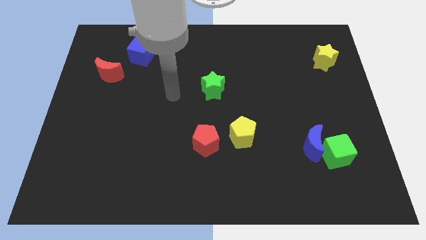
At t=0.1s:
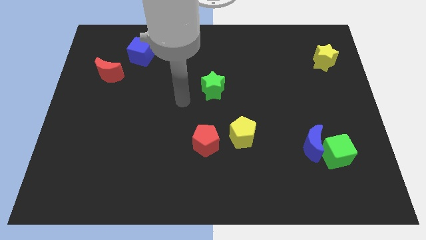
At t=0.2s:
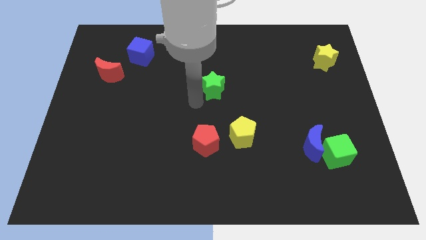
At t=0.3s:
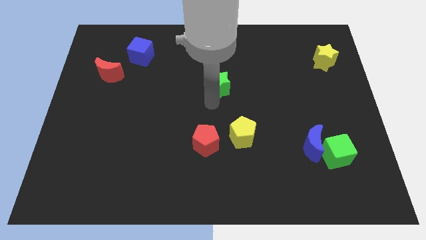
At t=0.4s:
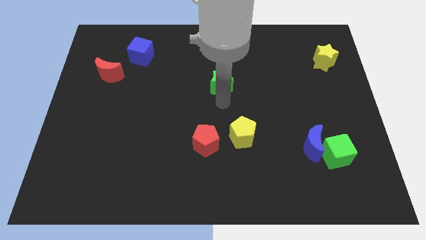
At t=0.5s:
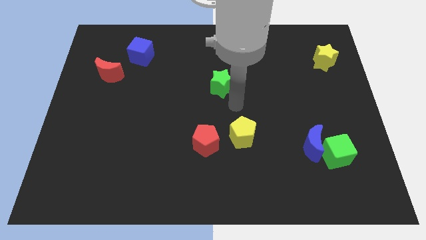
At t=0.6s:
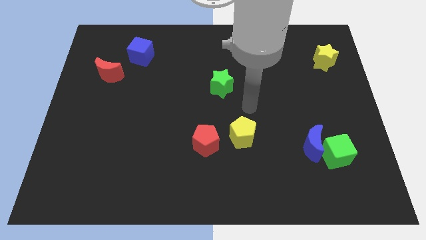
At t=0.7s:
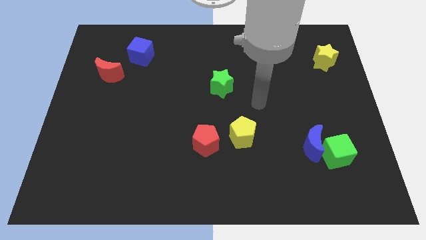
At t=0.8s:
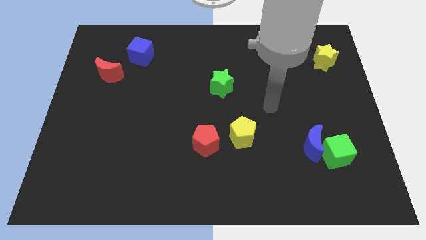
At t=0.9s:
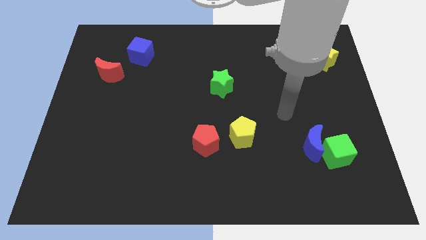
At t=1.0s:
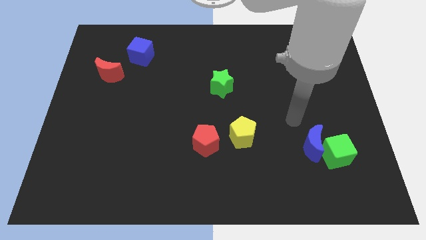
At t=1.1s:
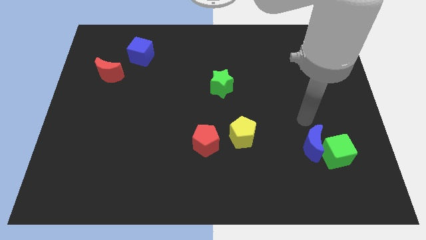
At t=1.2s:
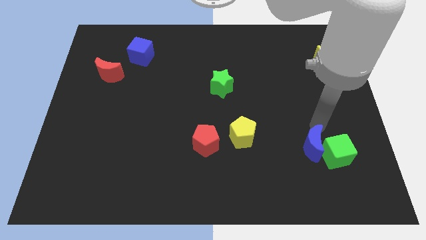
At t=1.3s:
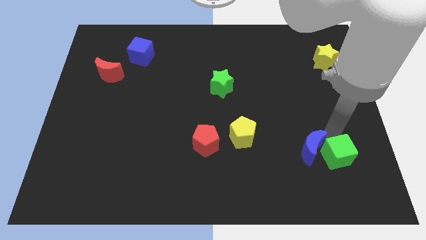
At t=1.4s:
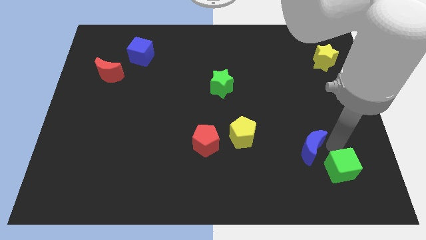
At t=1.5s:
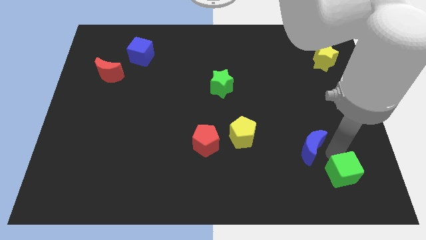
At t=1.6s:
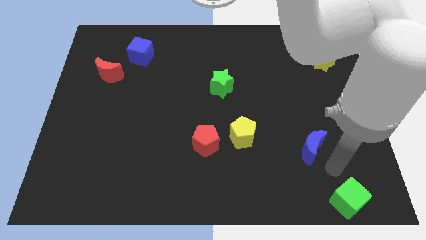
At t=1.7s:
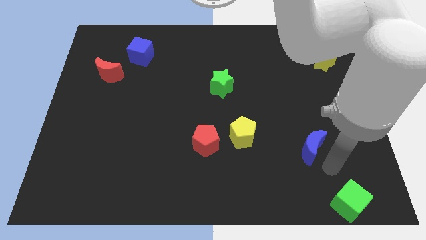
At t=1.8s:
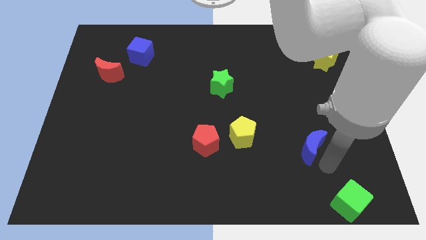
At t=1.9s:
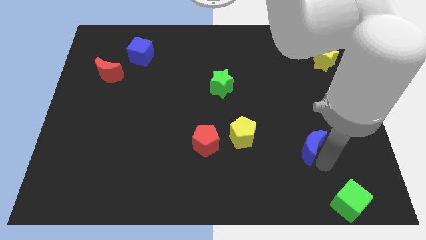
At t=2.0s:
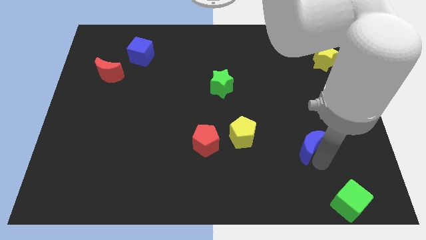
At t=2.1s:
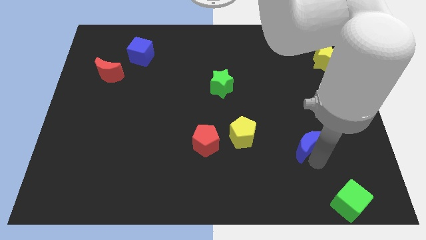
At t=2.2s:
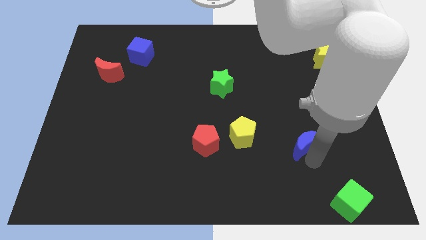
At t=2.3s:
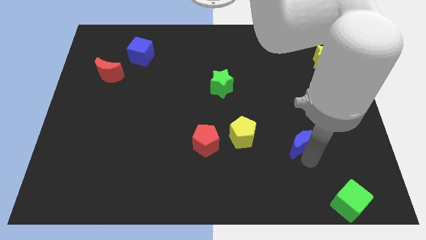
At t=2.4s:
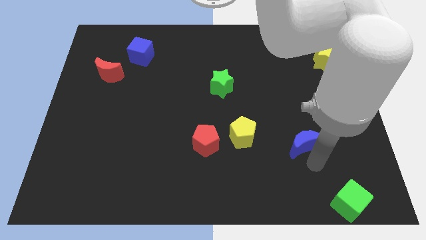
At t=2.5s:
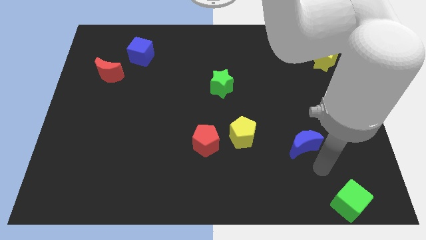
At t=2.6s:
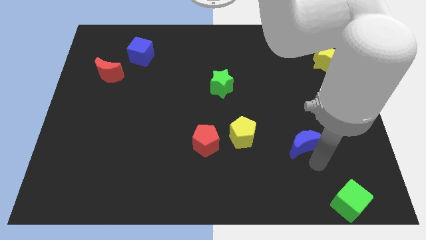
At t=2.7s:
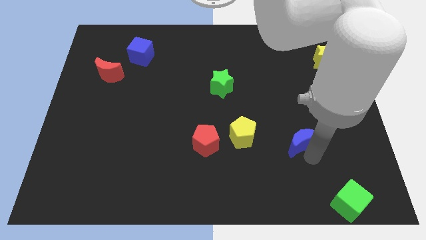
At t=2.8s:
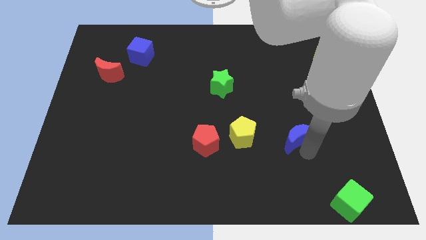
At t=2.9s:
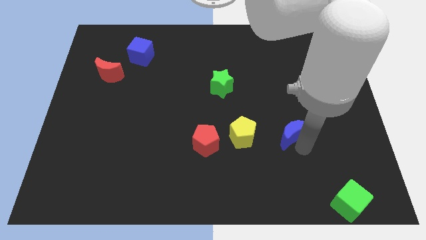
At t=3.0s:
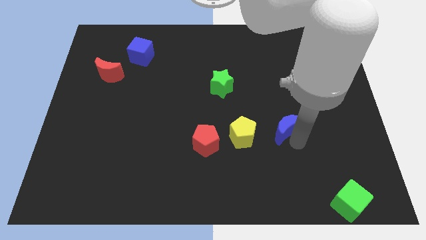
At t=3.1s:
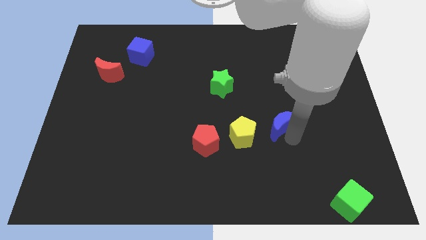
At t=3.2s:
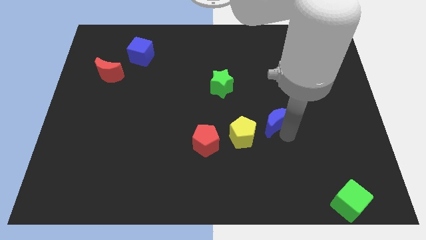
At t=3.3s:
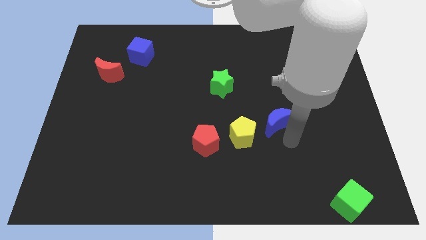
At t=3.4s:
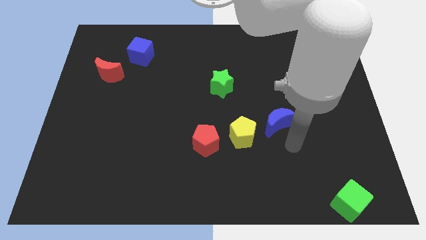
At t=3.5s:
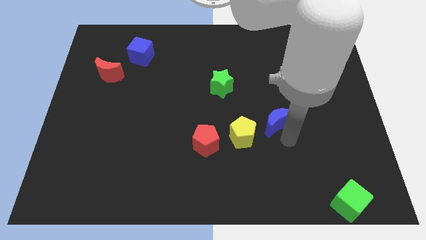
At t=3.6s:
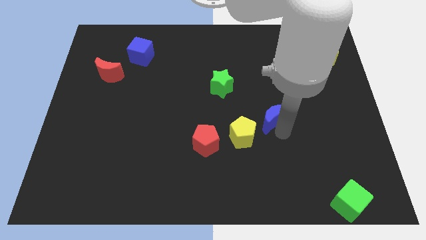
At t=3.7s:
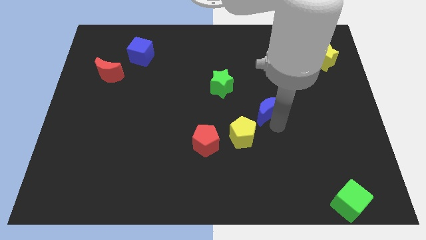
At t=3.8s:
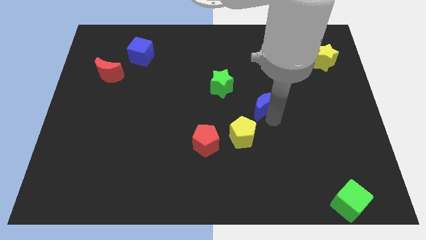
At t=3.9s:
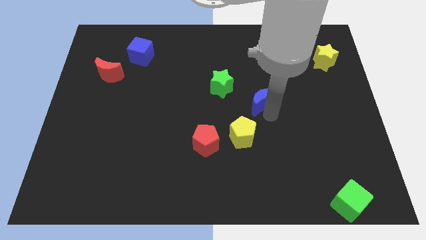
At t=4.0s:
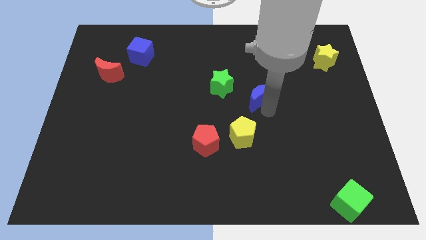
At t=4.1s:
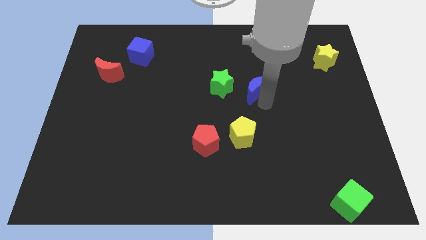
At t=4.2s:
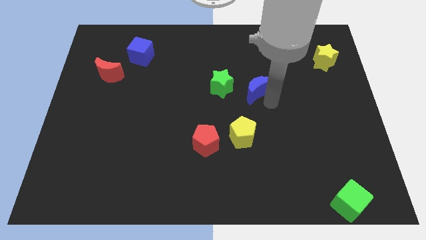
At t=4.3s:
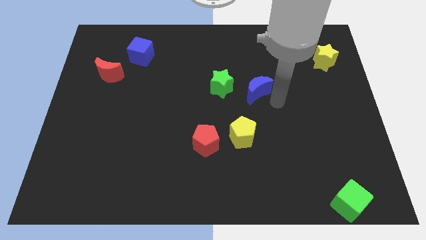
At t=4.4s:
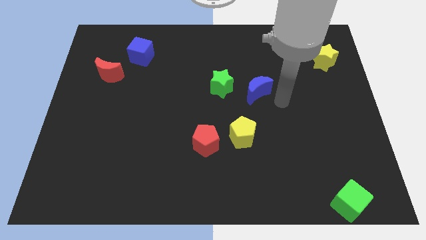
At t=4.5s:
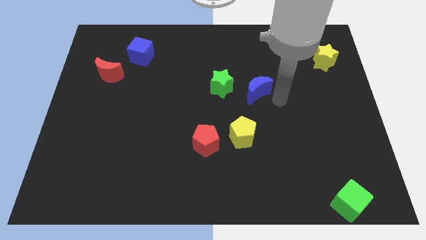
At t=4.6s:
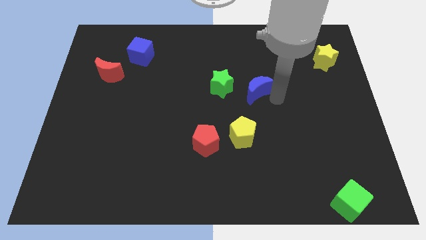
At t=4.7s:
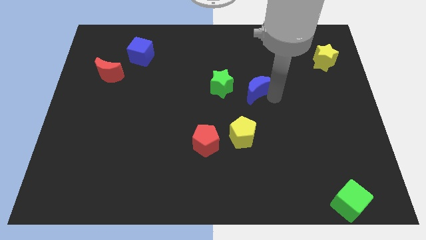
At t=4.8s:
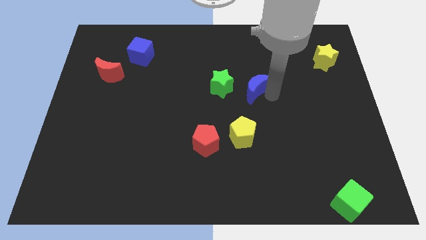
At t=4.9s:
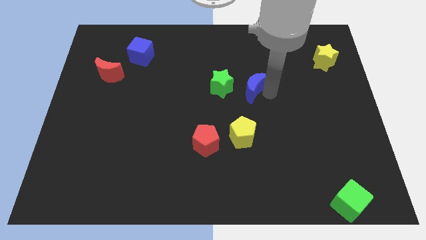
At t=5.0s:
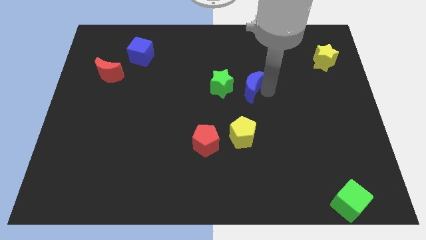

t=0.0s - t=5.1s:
slide the blue moon upwards and then to the left

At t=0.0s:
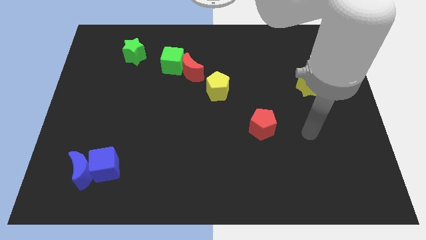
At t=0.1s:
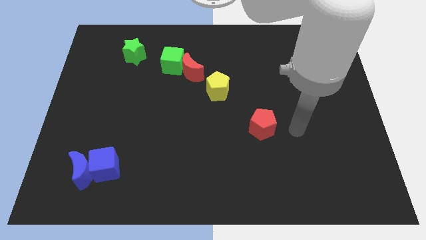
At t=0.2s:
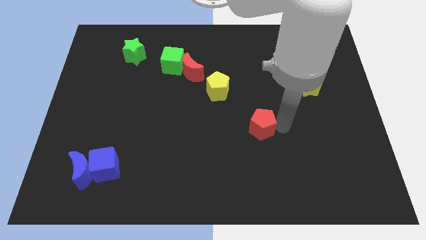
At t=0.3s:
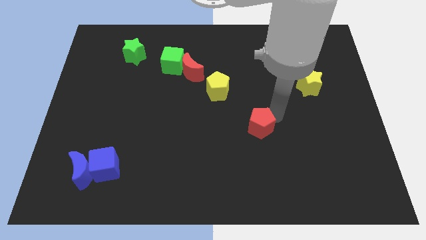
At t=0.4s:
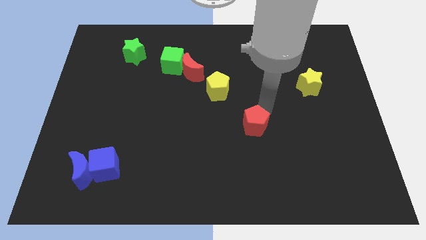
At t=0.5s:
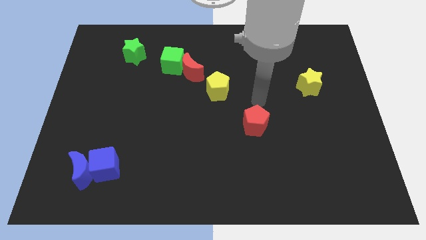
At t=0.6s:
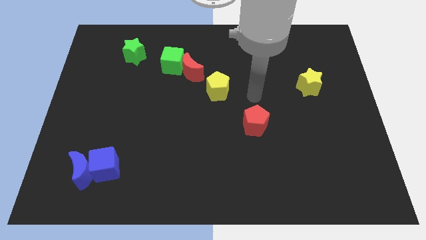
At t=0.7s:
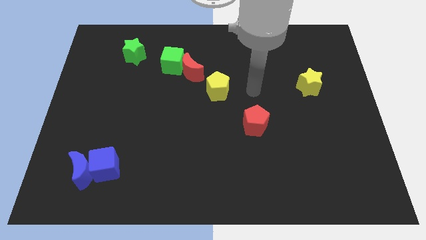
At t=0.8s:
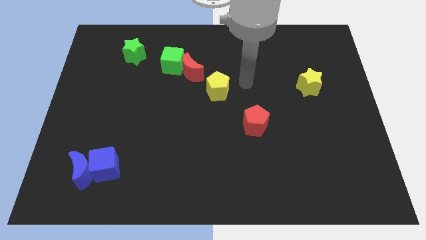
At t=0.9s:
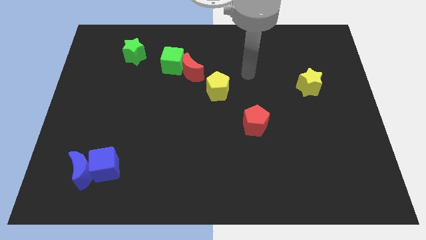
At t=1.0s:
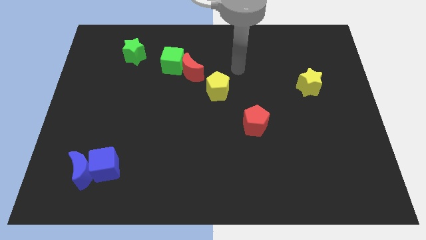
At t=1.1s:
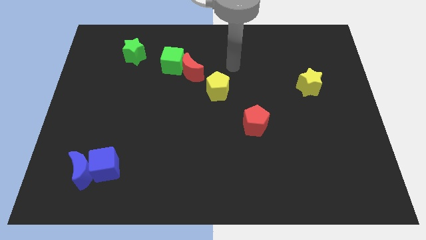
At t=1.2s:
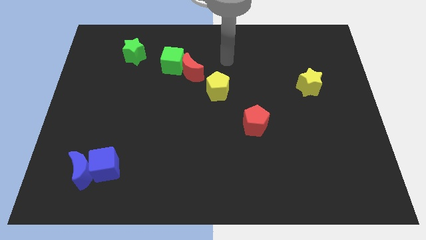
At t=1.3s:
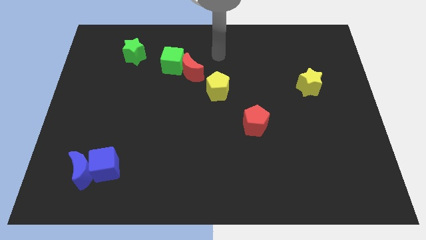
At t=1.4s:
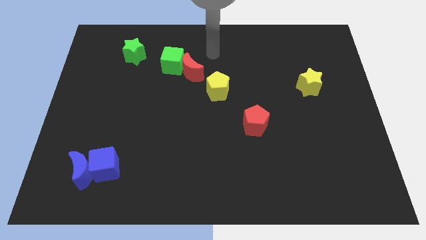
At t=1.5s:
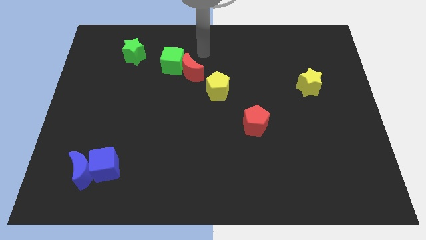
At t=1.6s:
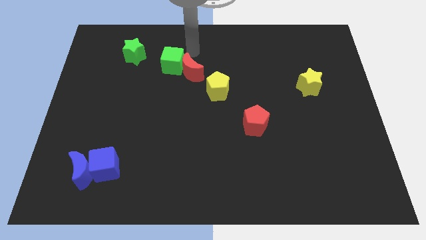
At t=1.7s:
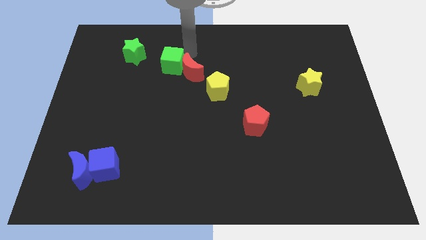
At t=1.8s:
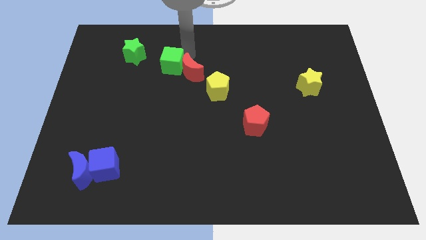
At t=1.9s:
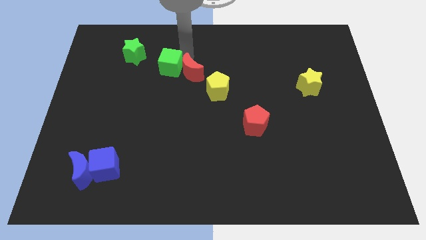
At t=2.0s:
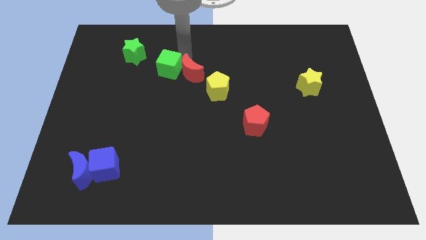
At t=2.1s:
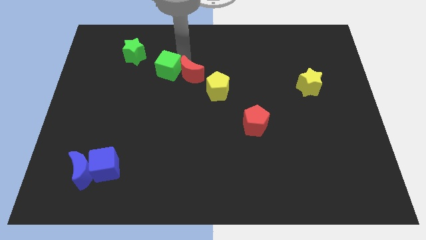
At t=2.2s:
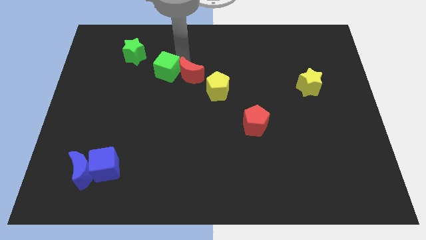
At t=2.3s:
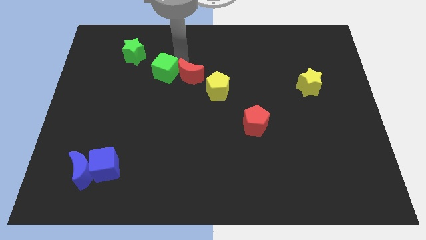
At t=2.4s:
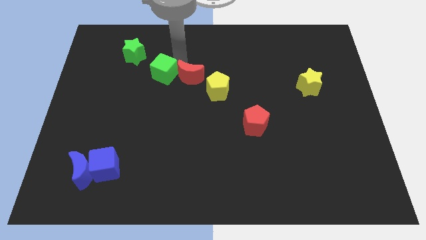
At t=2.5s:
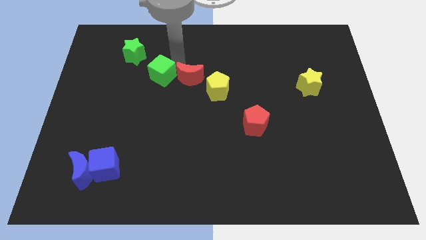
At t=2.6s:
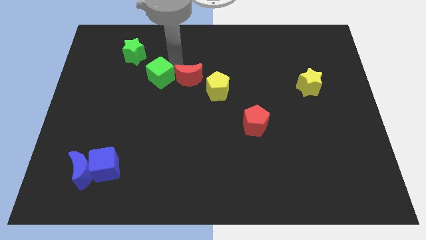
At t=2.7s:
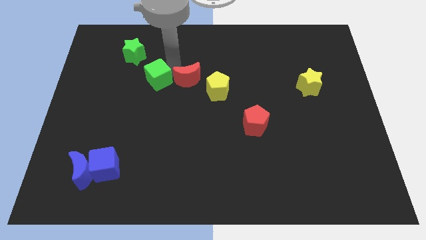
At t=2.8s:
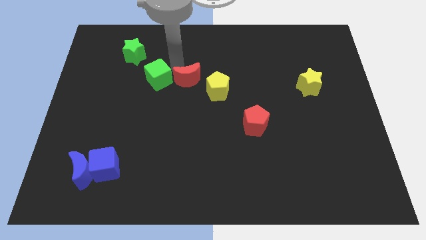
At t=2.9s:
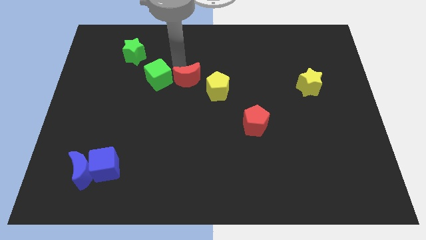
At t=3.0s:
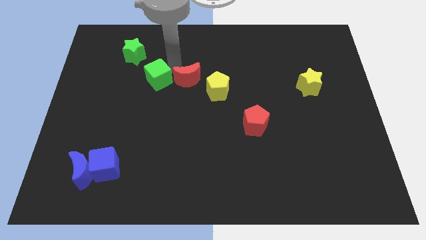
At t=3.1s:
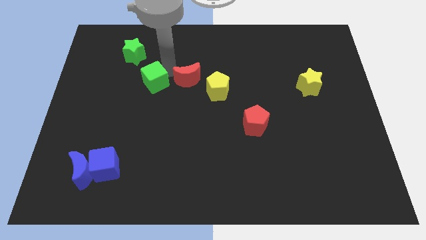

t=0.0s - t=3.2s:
slightly slide the green cube diagonally down and left
